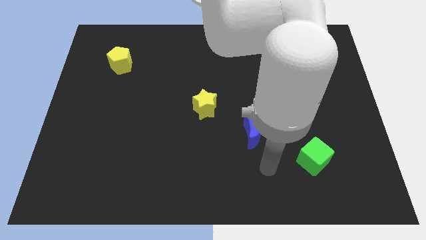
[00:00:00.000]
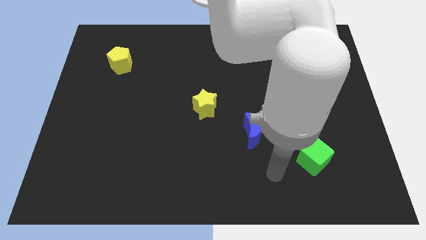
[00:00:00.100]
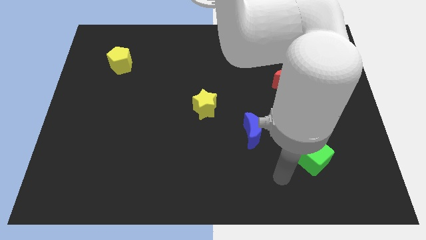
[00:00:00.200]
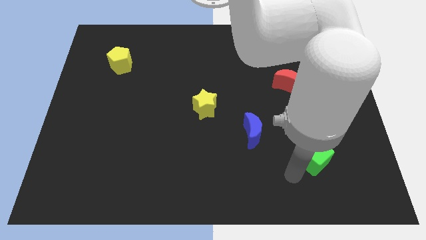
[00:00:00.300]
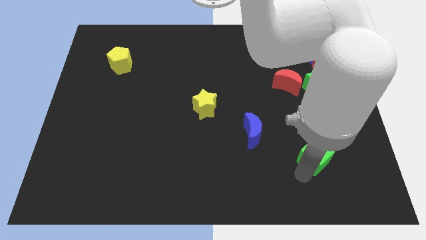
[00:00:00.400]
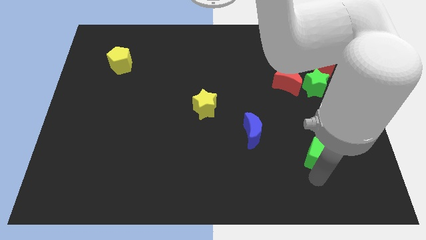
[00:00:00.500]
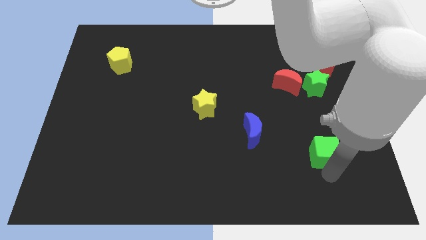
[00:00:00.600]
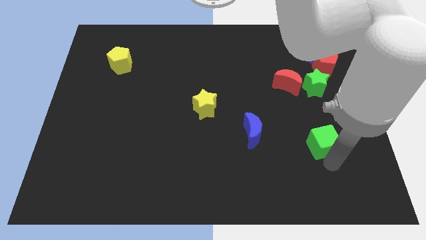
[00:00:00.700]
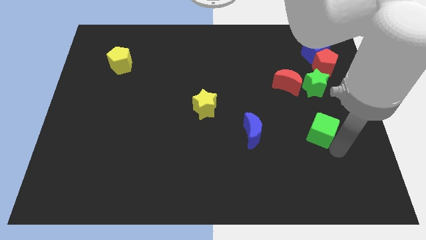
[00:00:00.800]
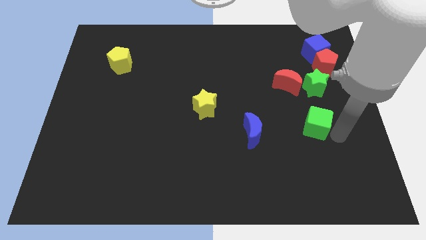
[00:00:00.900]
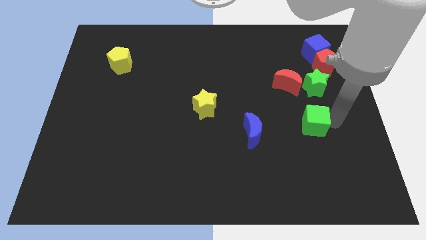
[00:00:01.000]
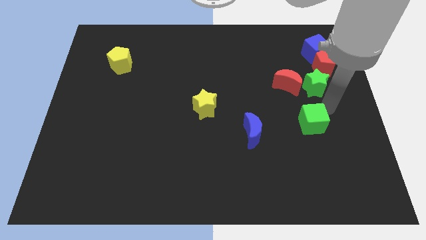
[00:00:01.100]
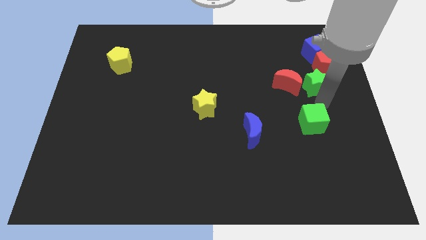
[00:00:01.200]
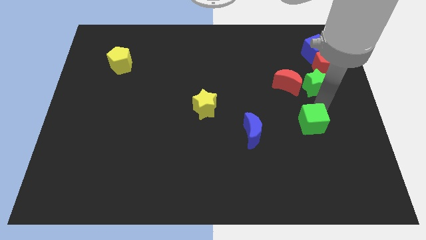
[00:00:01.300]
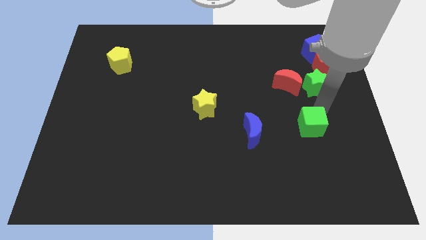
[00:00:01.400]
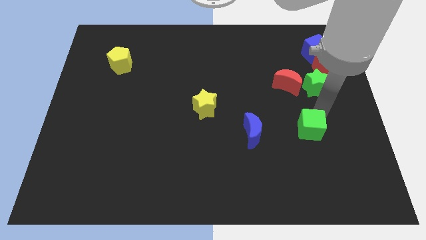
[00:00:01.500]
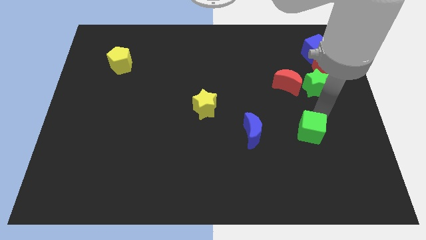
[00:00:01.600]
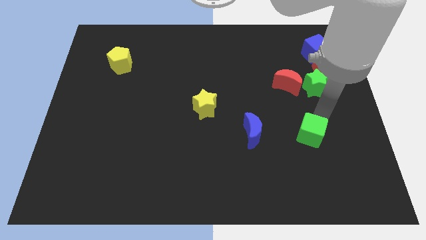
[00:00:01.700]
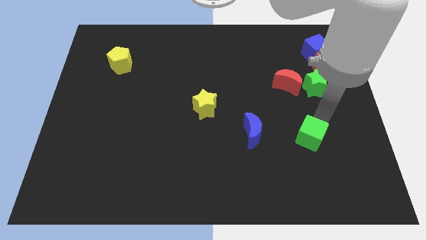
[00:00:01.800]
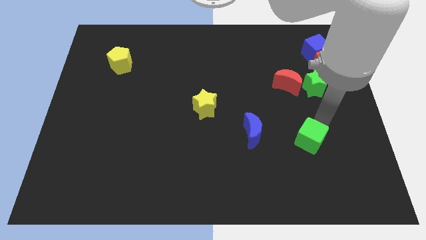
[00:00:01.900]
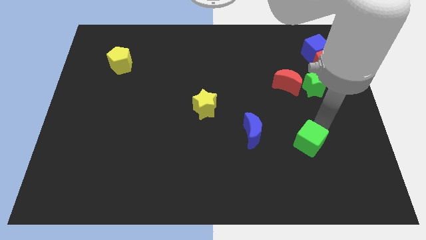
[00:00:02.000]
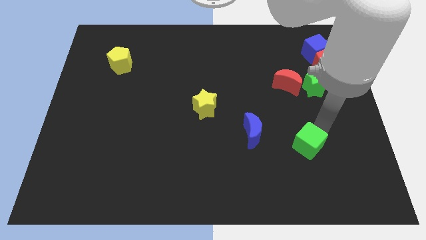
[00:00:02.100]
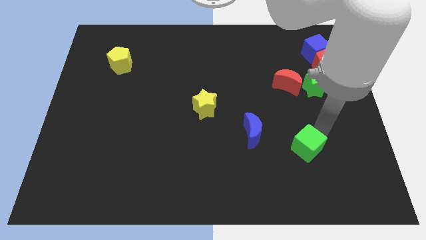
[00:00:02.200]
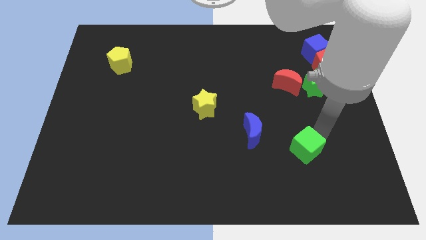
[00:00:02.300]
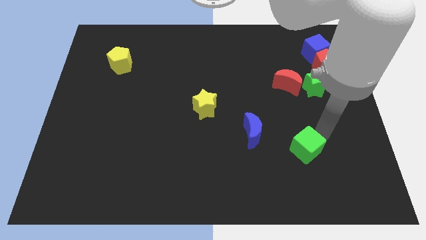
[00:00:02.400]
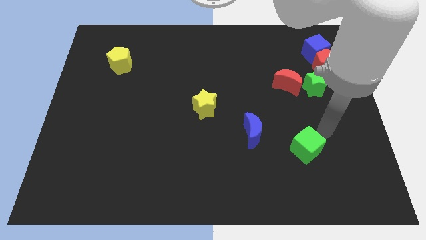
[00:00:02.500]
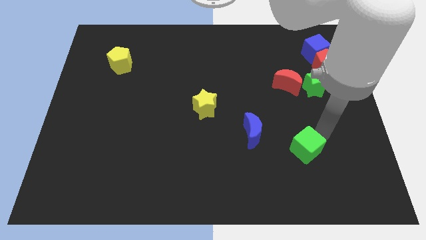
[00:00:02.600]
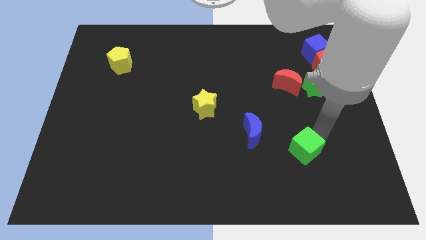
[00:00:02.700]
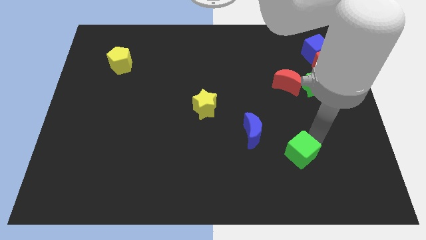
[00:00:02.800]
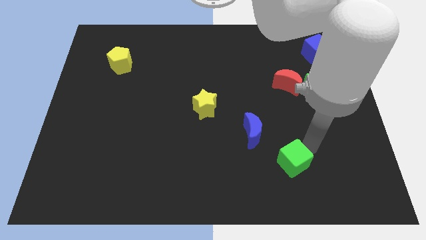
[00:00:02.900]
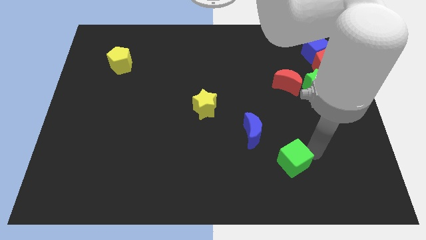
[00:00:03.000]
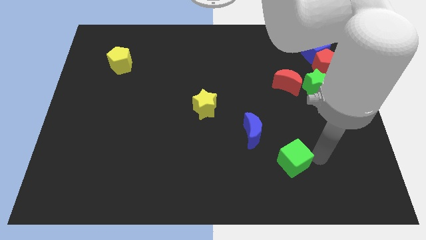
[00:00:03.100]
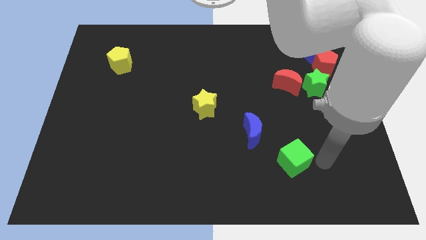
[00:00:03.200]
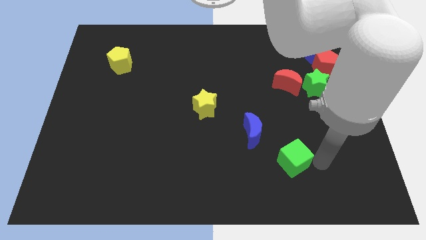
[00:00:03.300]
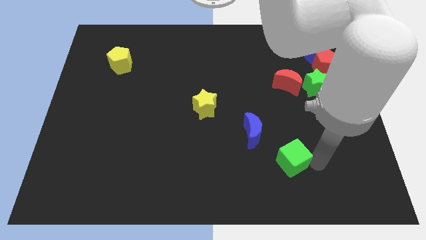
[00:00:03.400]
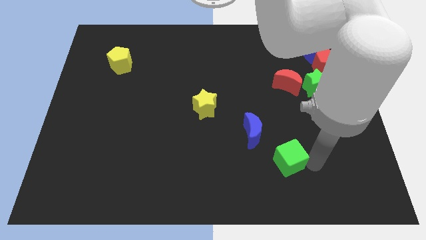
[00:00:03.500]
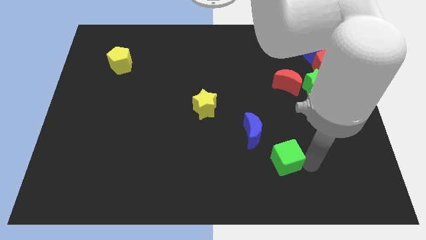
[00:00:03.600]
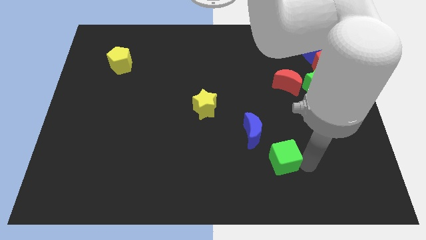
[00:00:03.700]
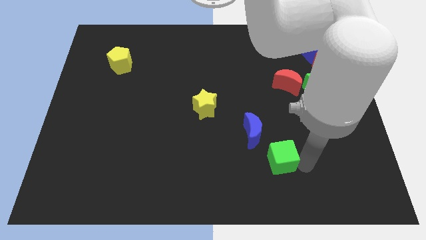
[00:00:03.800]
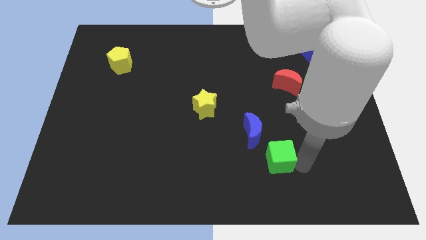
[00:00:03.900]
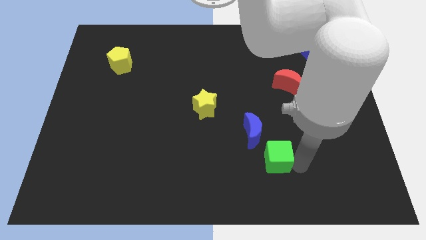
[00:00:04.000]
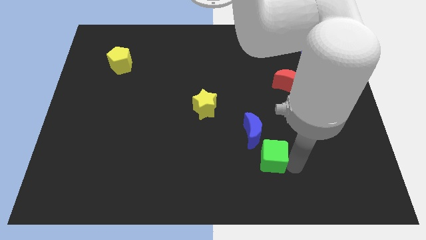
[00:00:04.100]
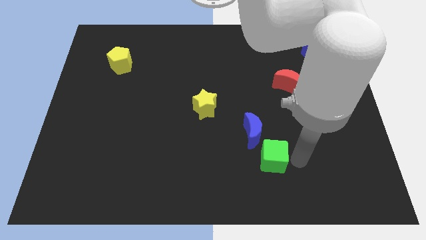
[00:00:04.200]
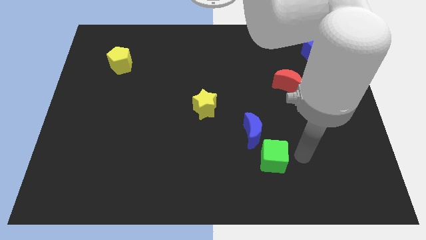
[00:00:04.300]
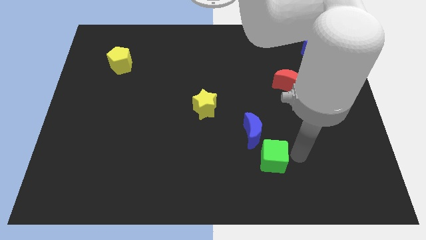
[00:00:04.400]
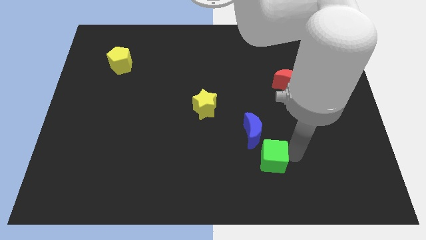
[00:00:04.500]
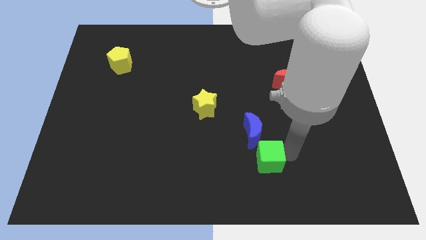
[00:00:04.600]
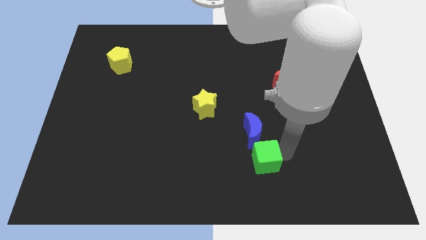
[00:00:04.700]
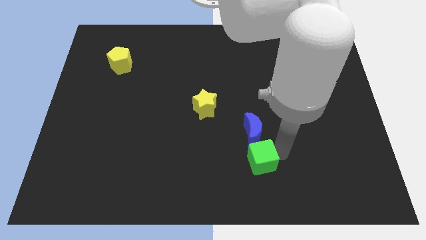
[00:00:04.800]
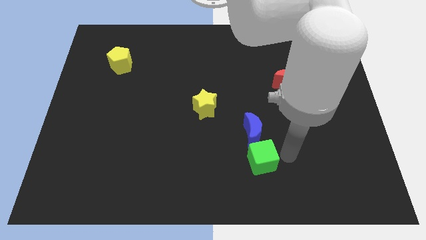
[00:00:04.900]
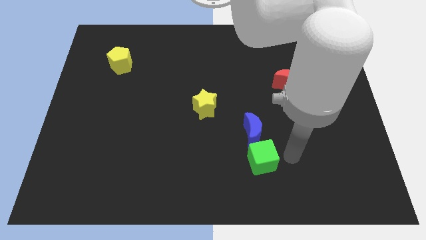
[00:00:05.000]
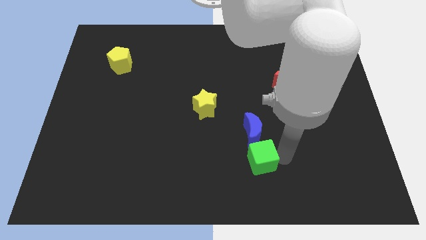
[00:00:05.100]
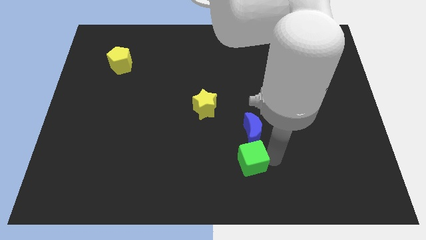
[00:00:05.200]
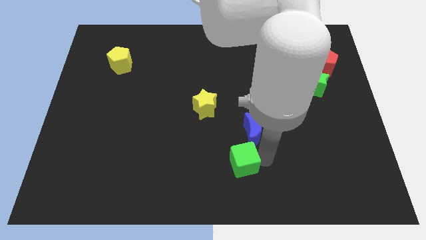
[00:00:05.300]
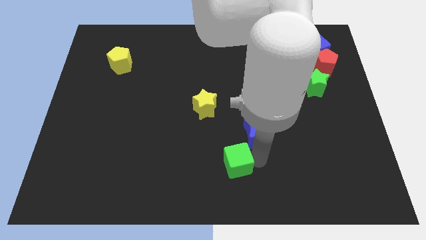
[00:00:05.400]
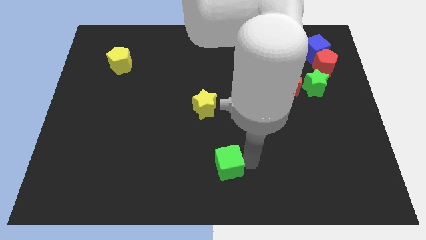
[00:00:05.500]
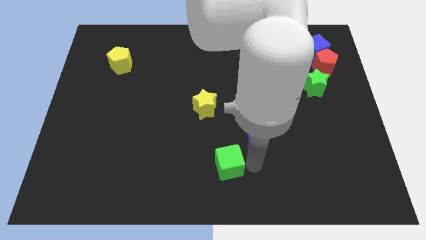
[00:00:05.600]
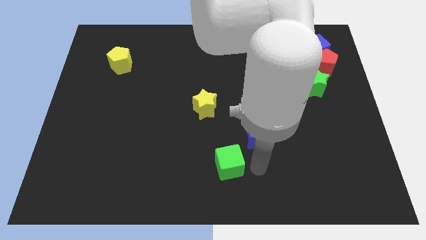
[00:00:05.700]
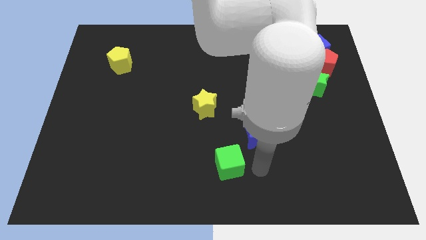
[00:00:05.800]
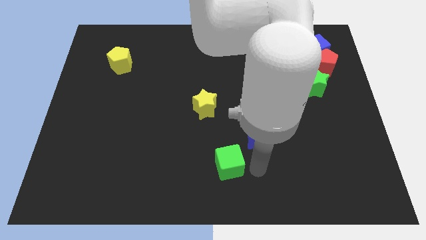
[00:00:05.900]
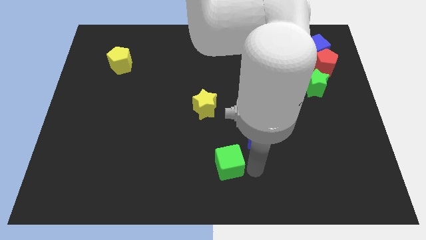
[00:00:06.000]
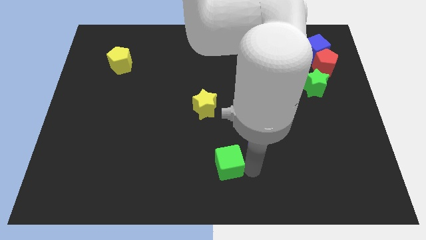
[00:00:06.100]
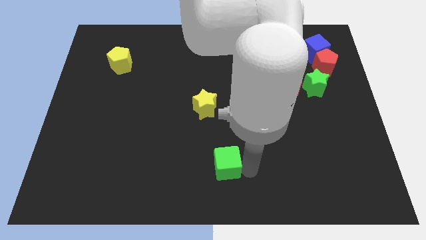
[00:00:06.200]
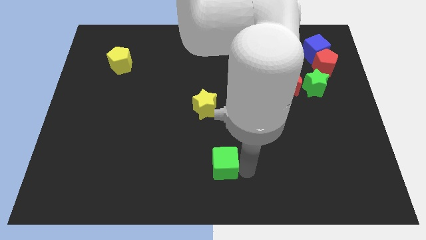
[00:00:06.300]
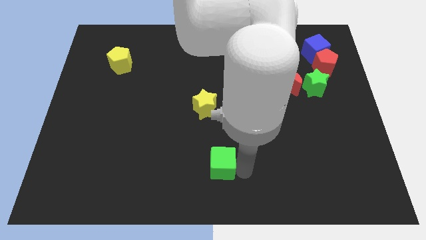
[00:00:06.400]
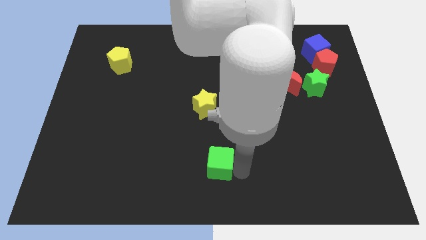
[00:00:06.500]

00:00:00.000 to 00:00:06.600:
slide the green cube left

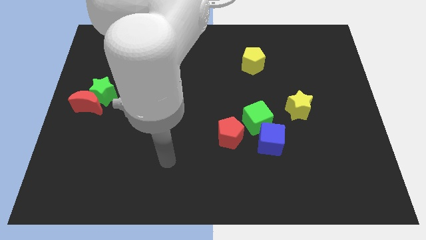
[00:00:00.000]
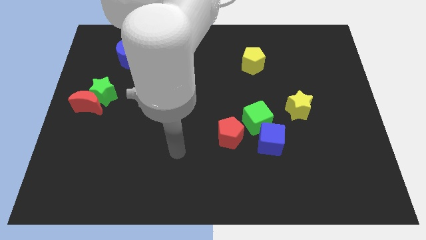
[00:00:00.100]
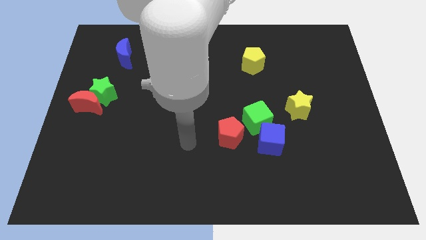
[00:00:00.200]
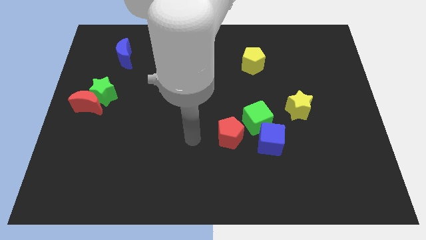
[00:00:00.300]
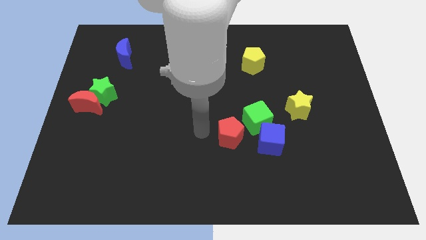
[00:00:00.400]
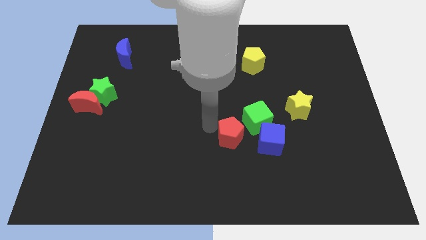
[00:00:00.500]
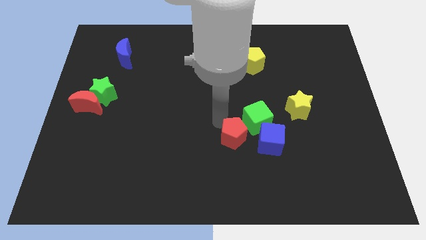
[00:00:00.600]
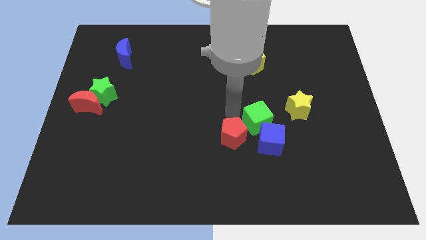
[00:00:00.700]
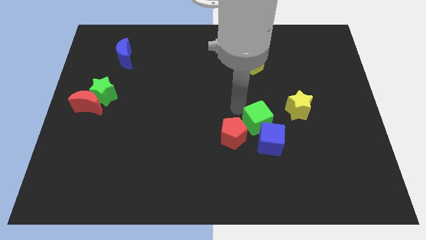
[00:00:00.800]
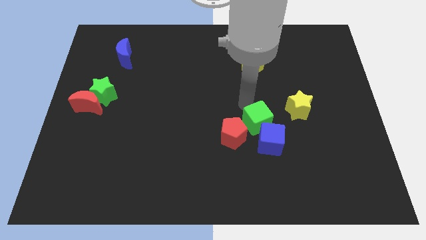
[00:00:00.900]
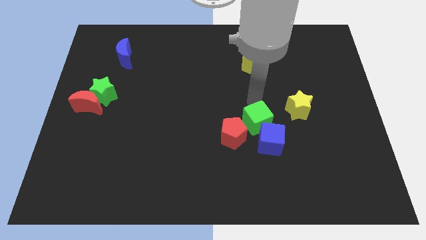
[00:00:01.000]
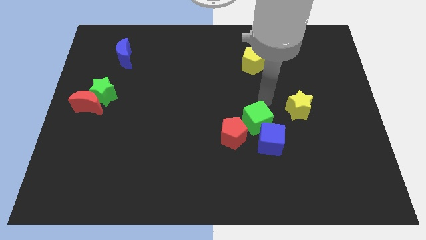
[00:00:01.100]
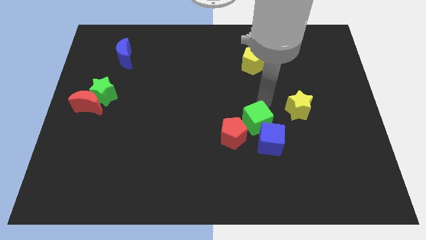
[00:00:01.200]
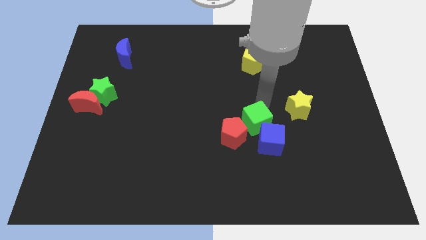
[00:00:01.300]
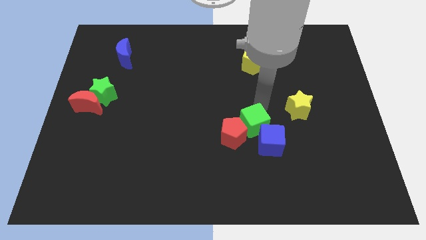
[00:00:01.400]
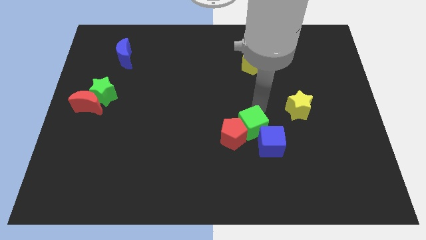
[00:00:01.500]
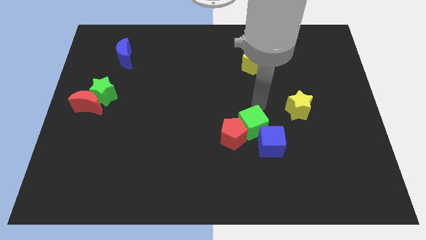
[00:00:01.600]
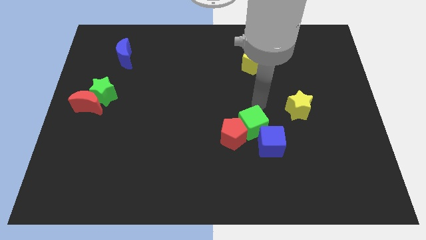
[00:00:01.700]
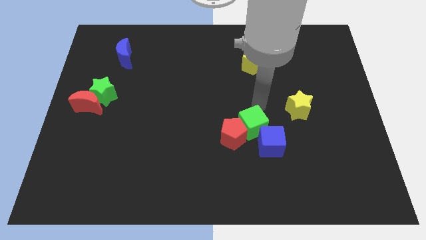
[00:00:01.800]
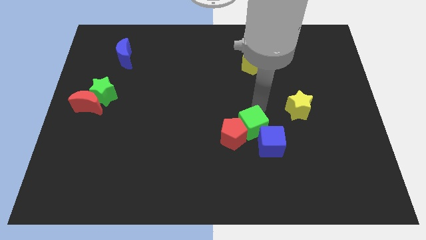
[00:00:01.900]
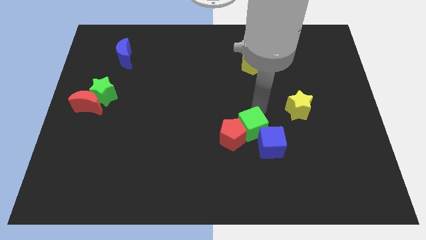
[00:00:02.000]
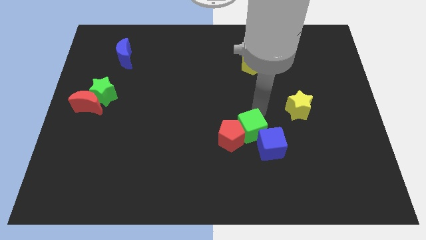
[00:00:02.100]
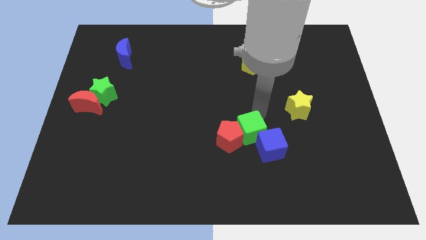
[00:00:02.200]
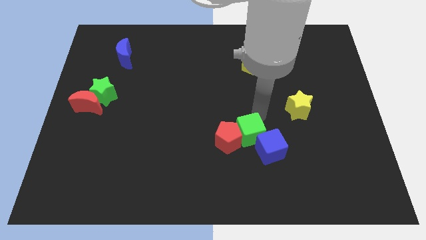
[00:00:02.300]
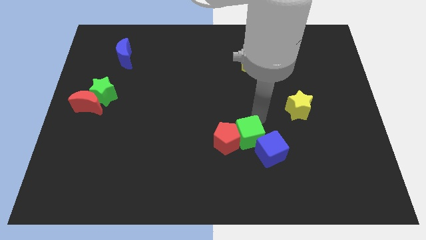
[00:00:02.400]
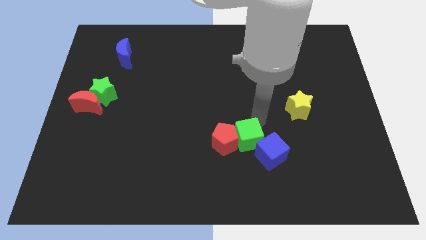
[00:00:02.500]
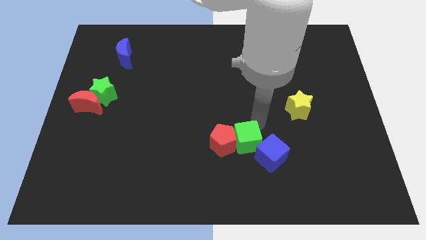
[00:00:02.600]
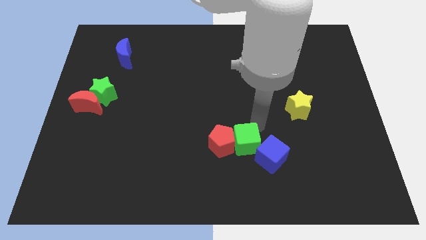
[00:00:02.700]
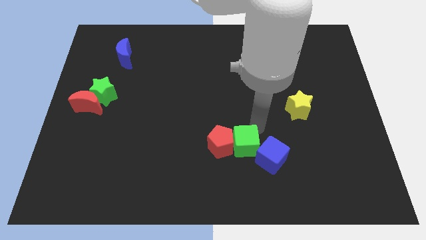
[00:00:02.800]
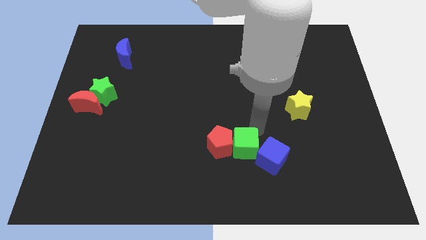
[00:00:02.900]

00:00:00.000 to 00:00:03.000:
move the green cube downwards and then left a little bit
